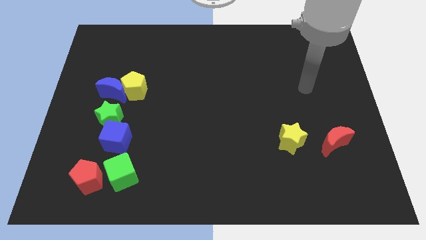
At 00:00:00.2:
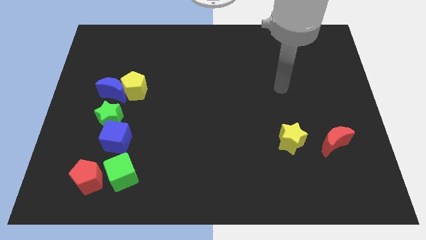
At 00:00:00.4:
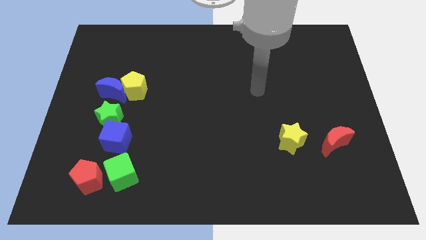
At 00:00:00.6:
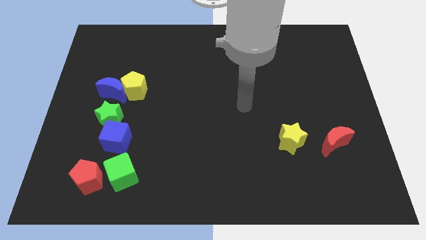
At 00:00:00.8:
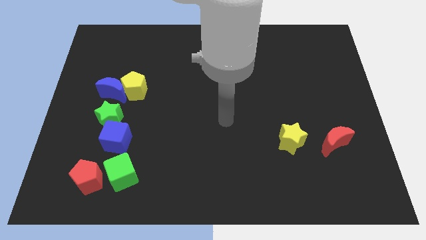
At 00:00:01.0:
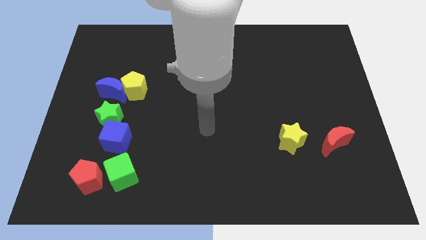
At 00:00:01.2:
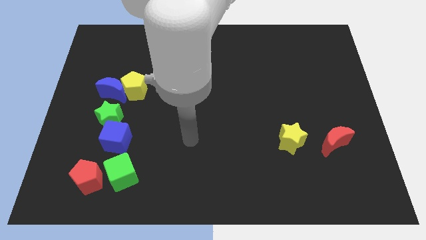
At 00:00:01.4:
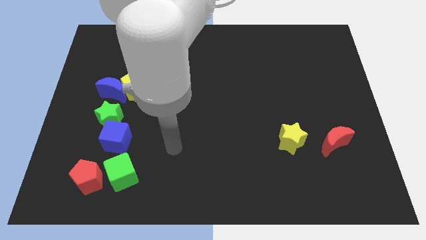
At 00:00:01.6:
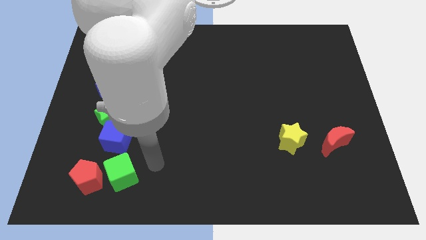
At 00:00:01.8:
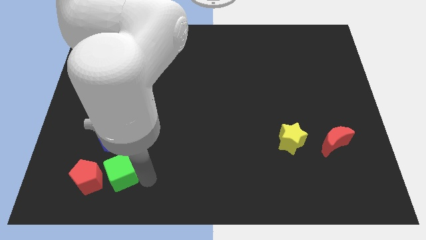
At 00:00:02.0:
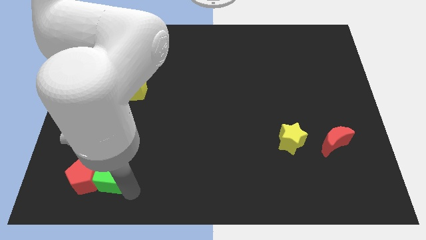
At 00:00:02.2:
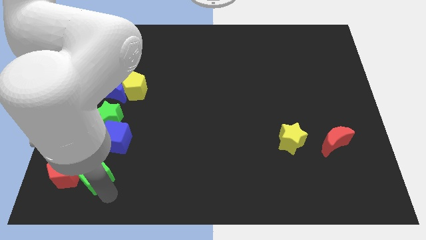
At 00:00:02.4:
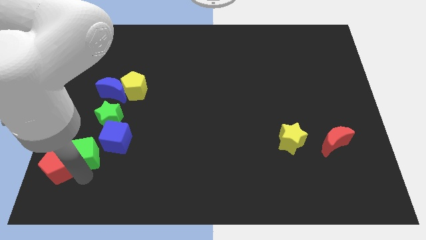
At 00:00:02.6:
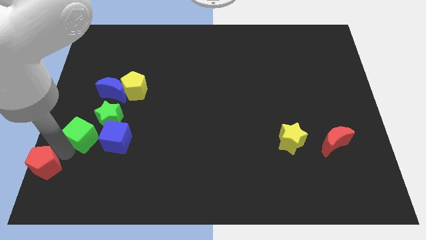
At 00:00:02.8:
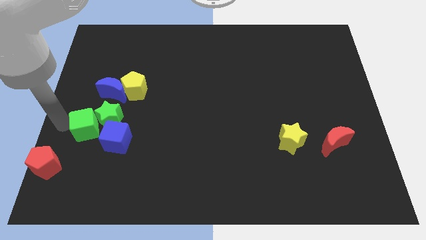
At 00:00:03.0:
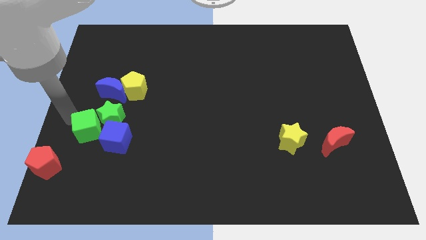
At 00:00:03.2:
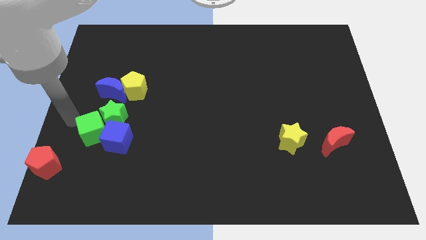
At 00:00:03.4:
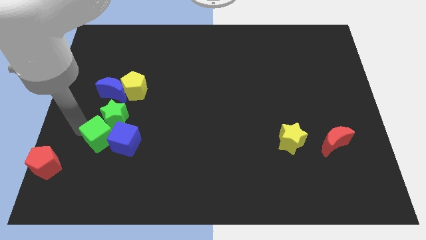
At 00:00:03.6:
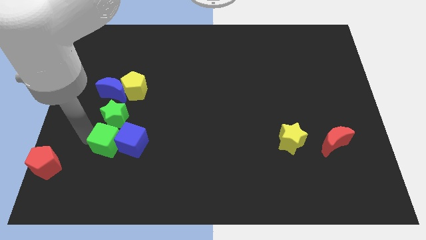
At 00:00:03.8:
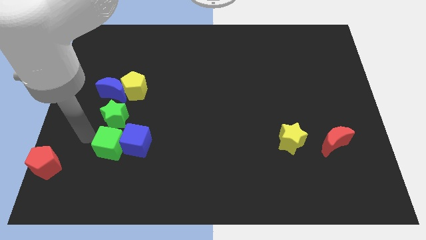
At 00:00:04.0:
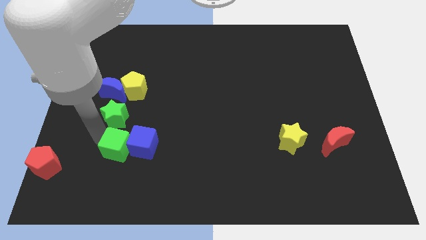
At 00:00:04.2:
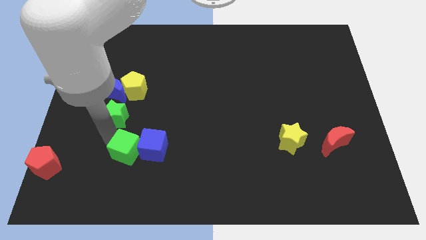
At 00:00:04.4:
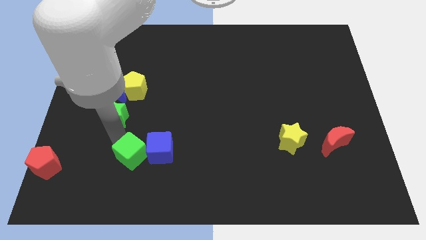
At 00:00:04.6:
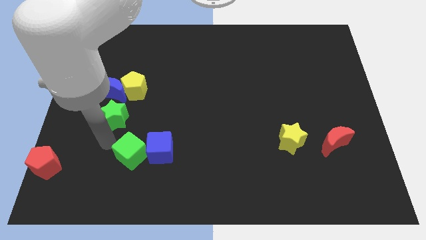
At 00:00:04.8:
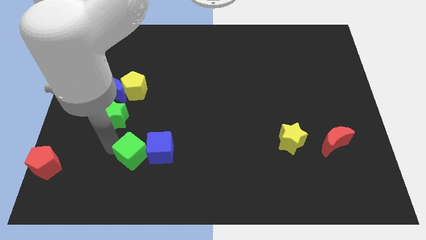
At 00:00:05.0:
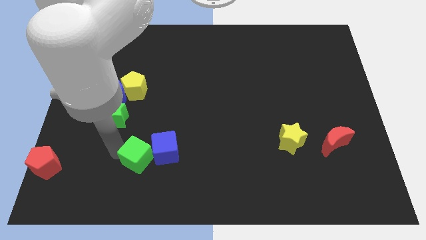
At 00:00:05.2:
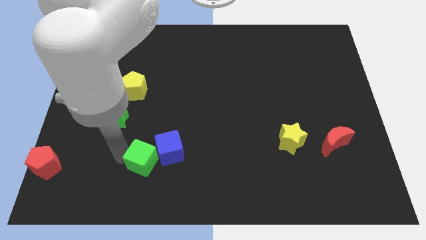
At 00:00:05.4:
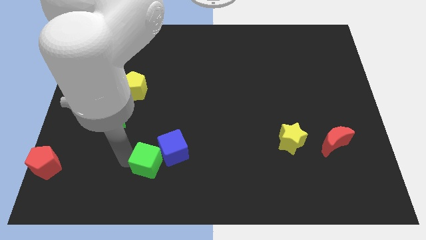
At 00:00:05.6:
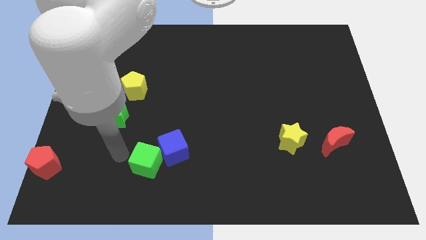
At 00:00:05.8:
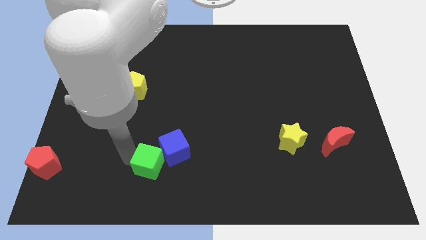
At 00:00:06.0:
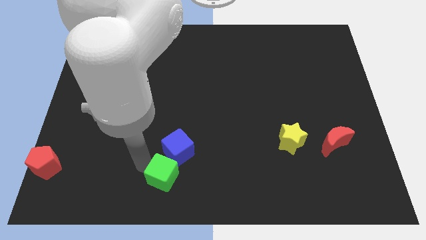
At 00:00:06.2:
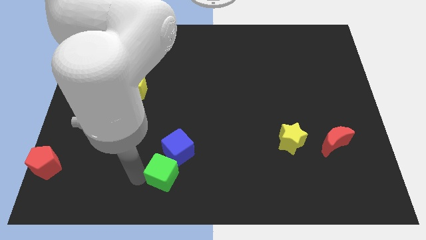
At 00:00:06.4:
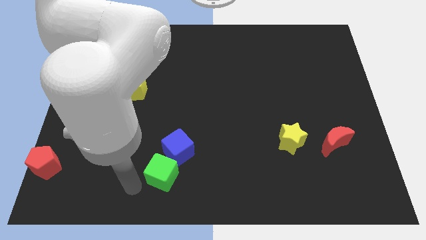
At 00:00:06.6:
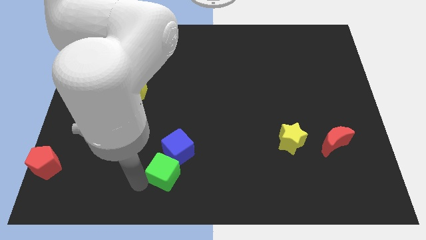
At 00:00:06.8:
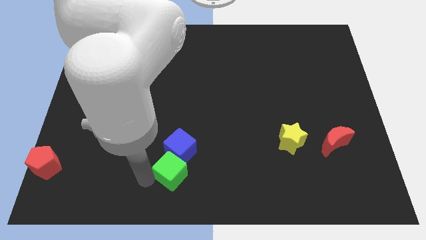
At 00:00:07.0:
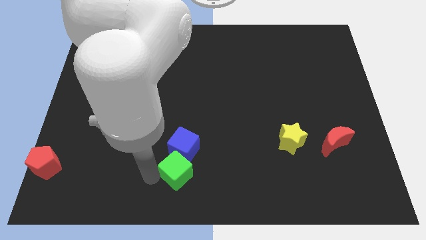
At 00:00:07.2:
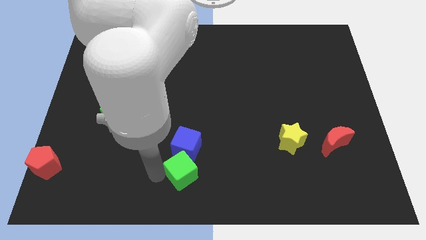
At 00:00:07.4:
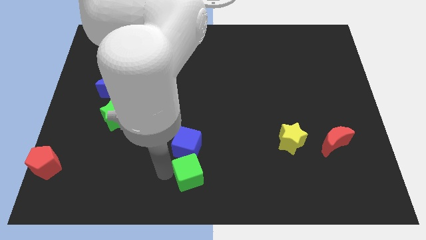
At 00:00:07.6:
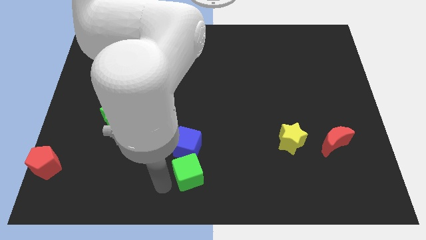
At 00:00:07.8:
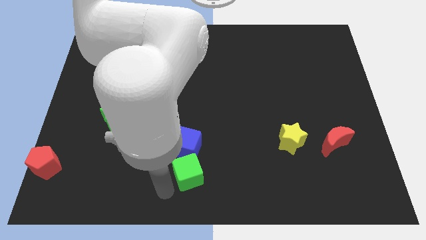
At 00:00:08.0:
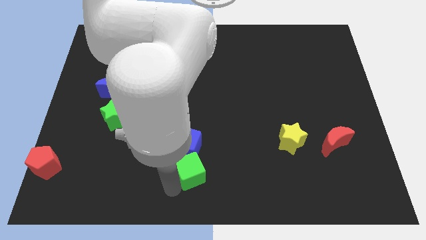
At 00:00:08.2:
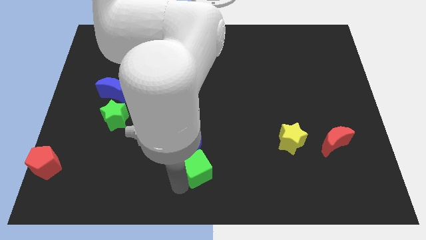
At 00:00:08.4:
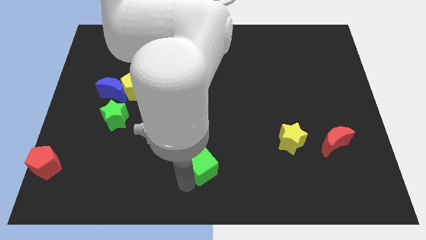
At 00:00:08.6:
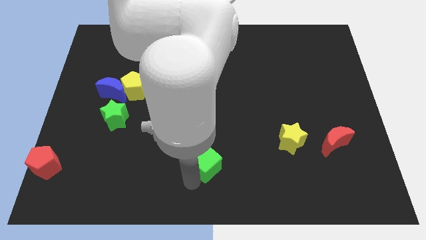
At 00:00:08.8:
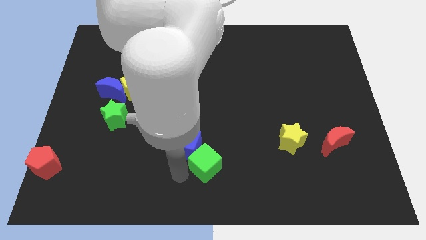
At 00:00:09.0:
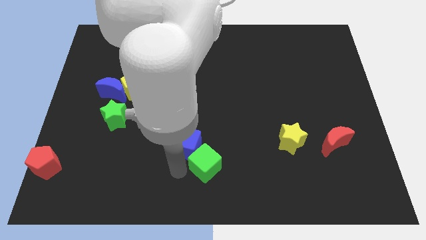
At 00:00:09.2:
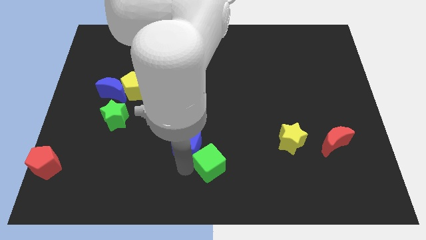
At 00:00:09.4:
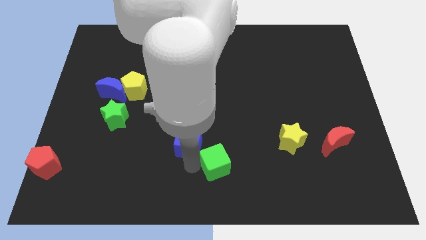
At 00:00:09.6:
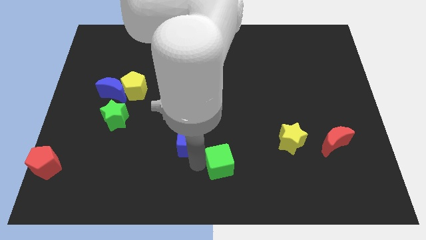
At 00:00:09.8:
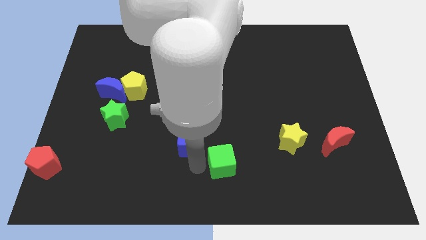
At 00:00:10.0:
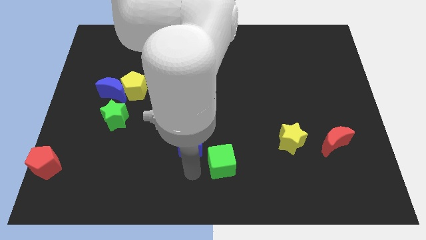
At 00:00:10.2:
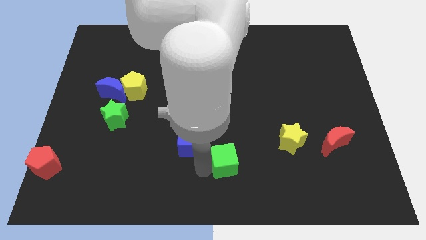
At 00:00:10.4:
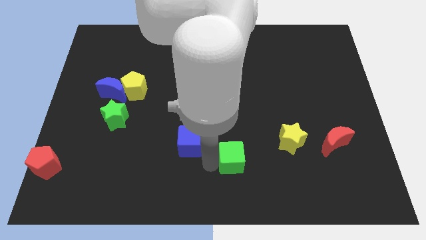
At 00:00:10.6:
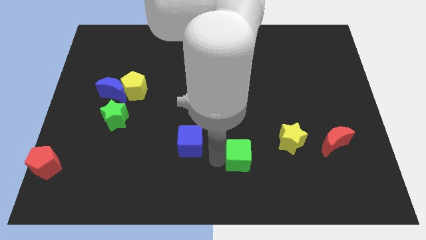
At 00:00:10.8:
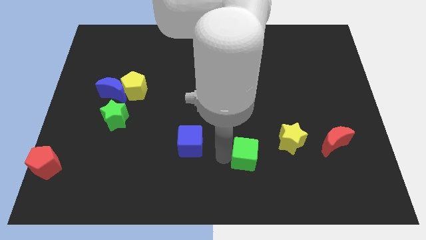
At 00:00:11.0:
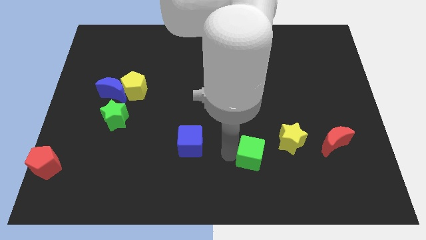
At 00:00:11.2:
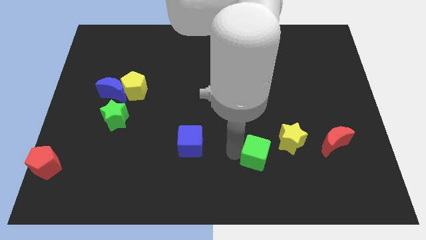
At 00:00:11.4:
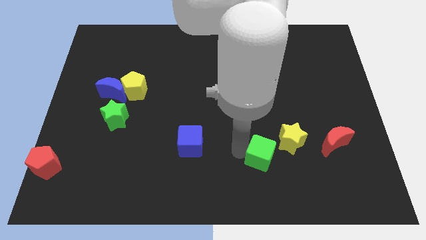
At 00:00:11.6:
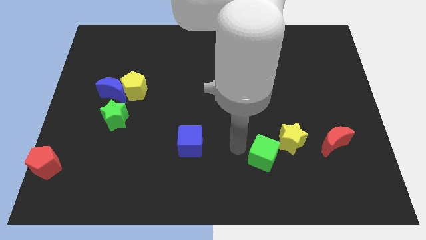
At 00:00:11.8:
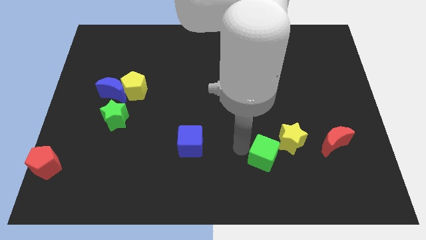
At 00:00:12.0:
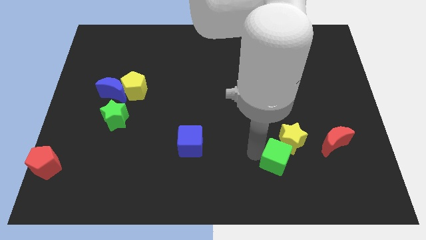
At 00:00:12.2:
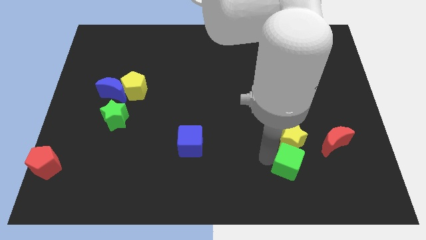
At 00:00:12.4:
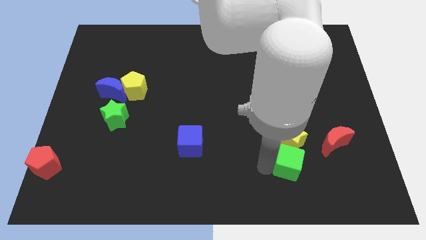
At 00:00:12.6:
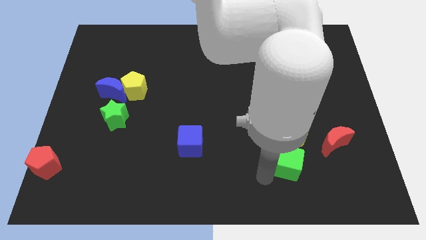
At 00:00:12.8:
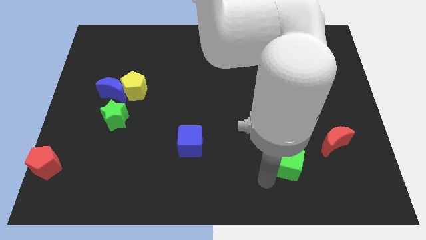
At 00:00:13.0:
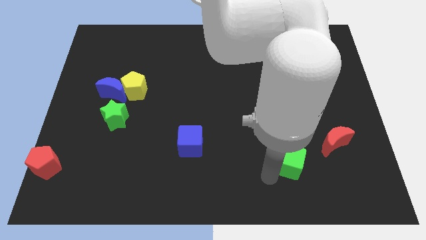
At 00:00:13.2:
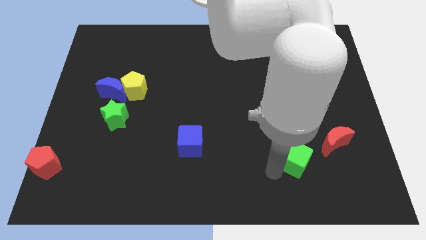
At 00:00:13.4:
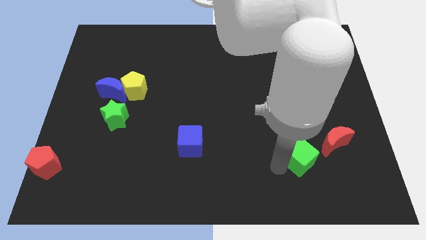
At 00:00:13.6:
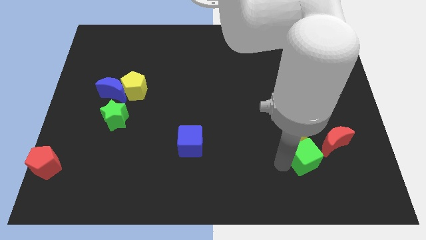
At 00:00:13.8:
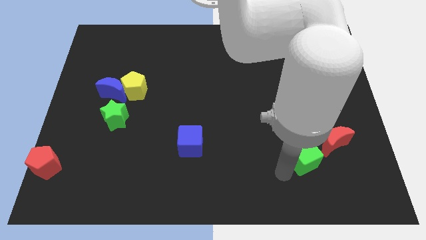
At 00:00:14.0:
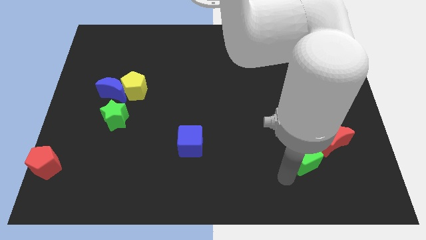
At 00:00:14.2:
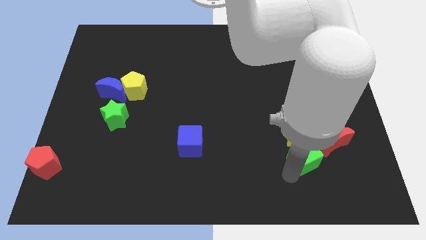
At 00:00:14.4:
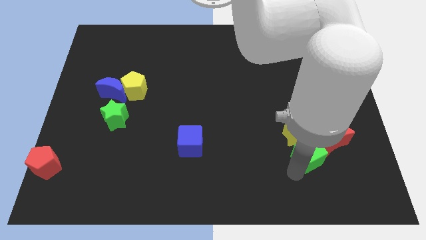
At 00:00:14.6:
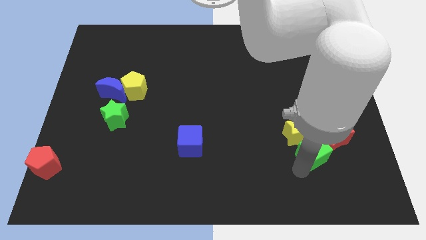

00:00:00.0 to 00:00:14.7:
move the green cube towards the red moon
